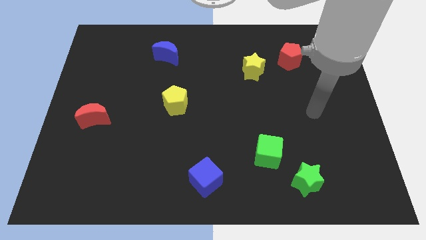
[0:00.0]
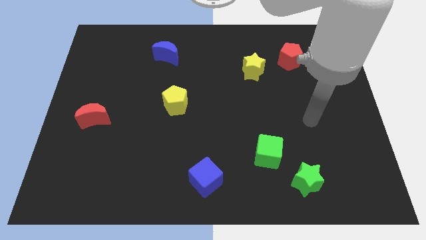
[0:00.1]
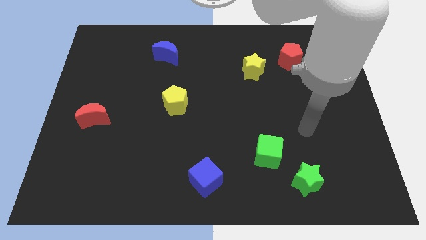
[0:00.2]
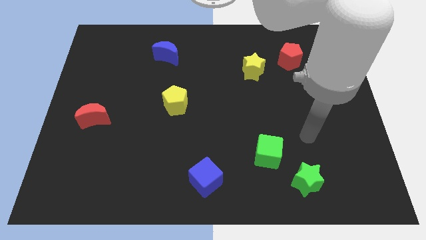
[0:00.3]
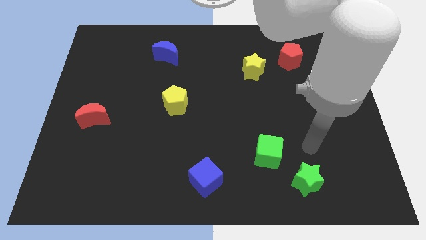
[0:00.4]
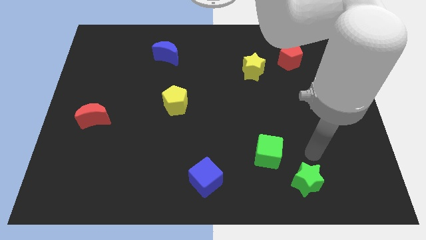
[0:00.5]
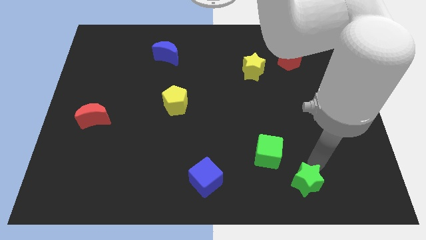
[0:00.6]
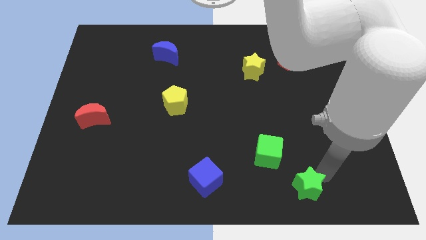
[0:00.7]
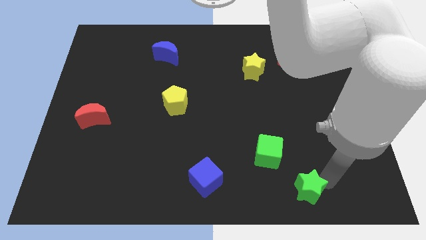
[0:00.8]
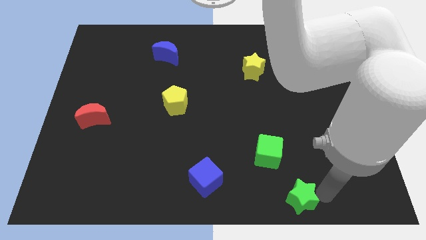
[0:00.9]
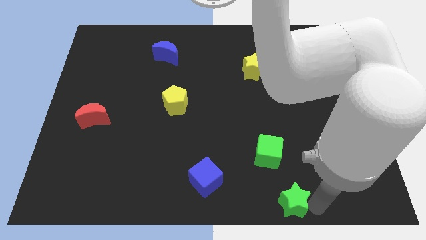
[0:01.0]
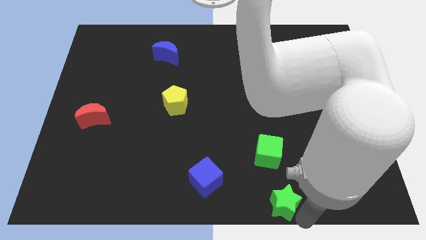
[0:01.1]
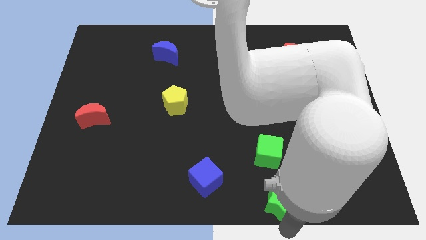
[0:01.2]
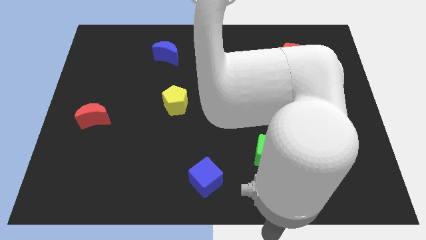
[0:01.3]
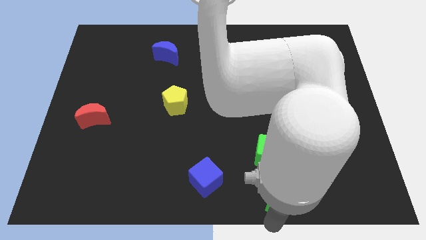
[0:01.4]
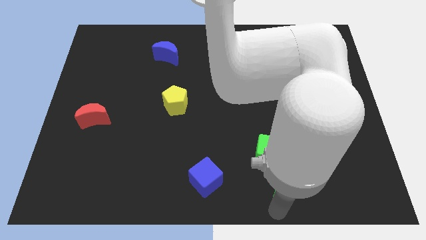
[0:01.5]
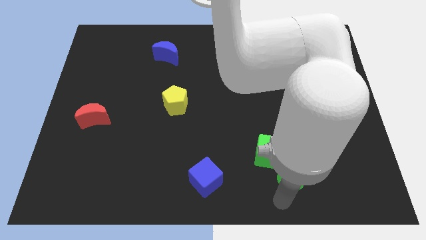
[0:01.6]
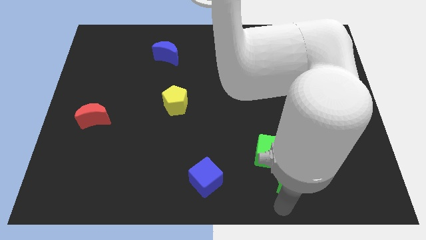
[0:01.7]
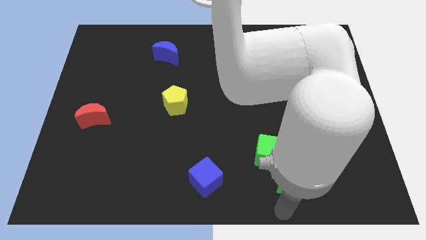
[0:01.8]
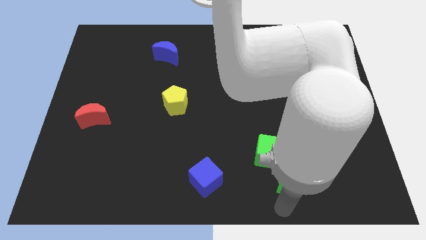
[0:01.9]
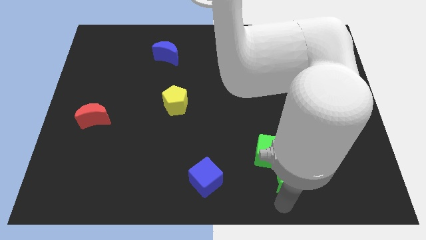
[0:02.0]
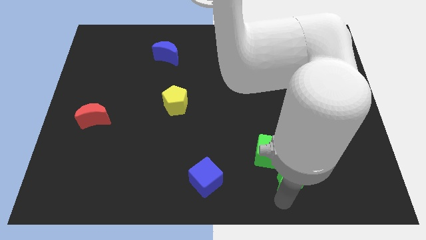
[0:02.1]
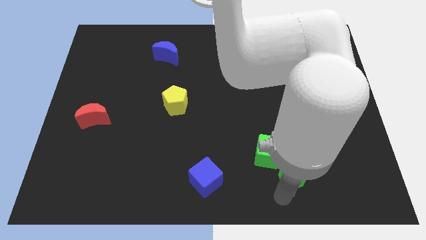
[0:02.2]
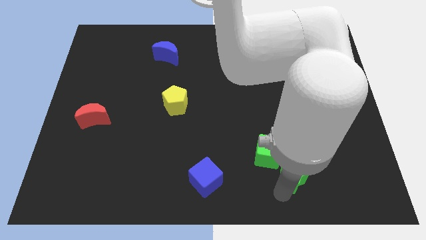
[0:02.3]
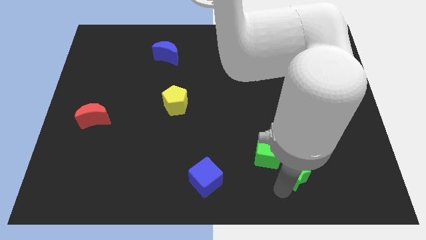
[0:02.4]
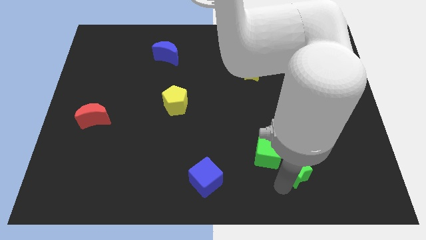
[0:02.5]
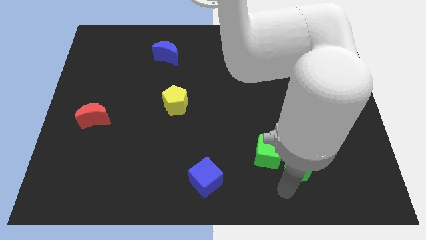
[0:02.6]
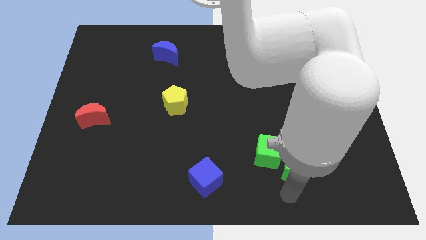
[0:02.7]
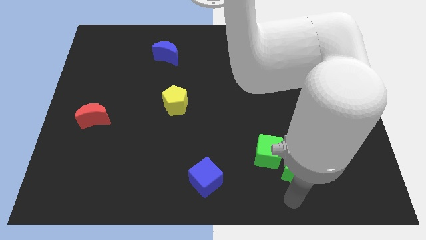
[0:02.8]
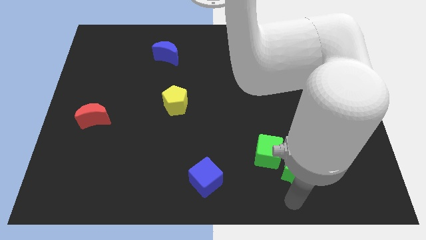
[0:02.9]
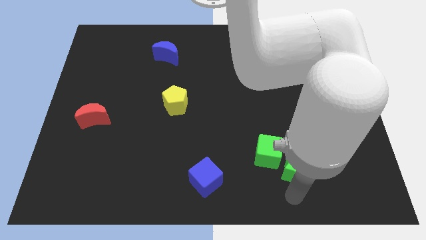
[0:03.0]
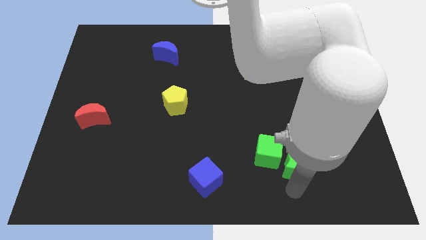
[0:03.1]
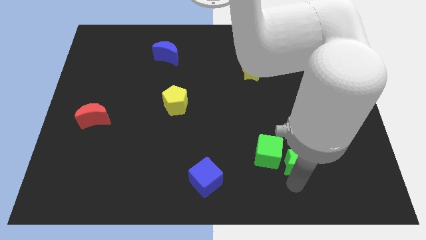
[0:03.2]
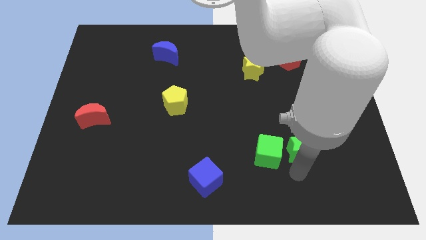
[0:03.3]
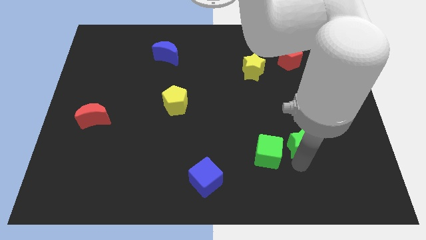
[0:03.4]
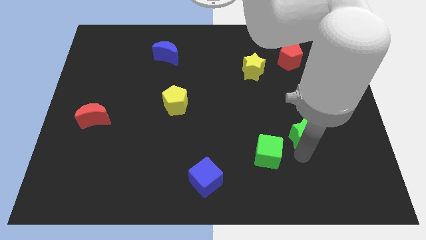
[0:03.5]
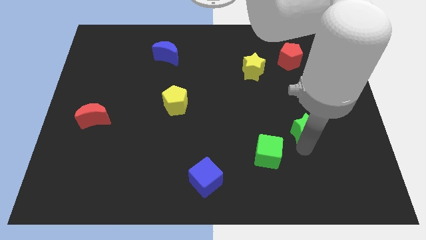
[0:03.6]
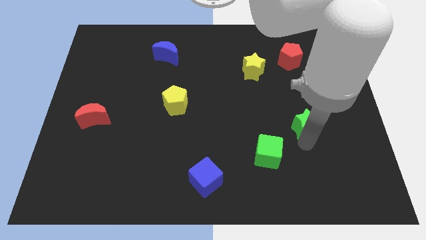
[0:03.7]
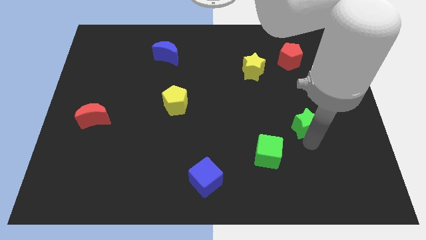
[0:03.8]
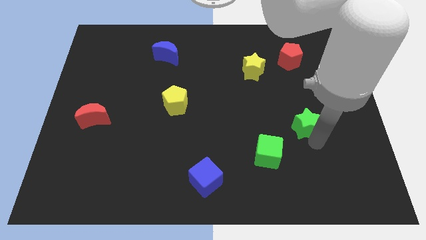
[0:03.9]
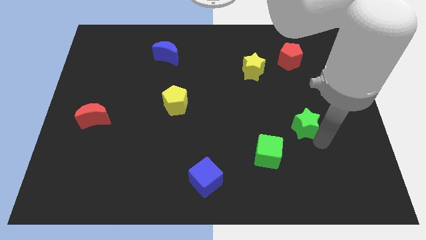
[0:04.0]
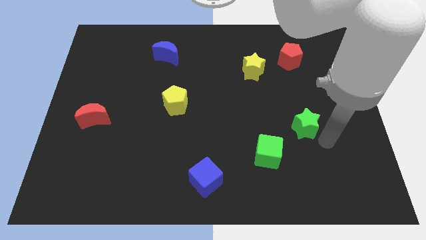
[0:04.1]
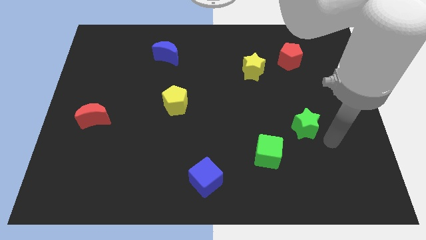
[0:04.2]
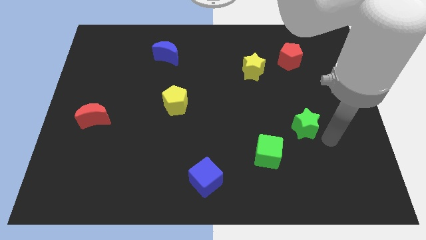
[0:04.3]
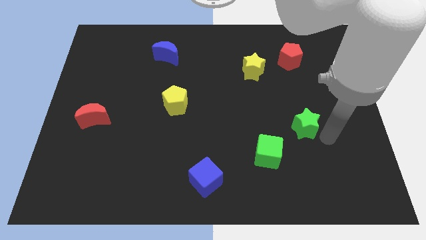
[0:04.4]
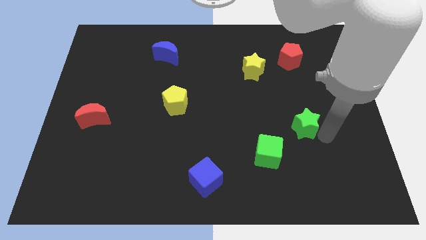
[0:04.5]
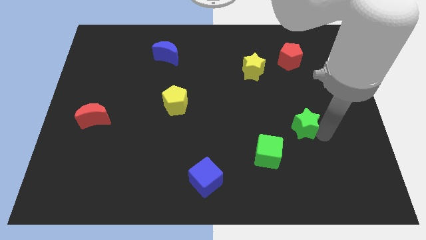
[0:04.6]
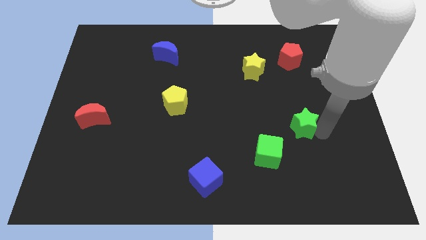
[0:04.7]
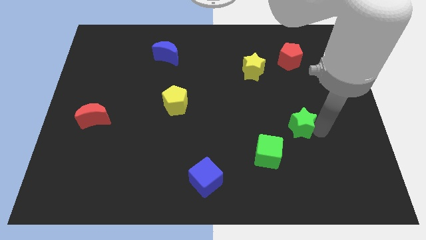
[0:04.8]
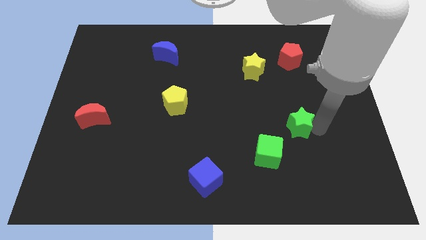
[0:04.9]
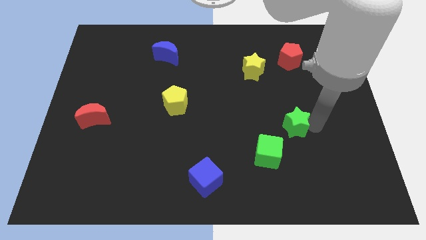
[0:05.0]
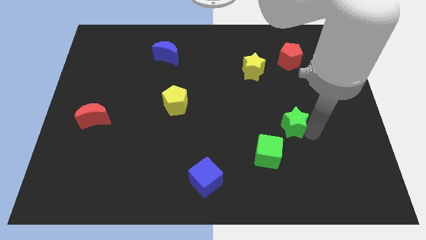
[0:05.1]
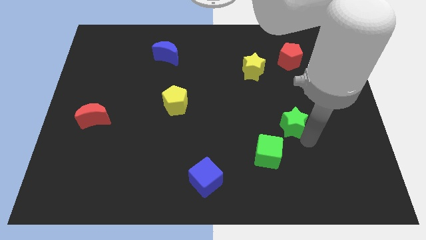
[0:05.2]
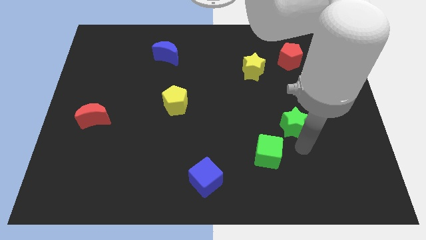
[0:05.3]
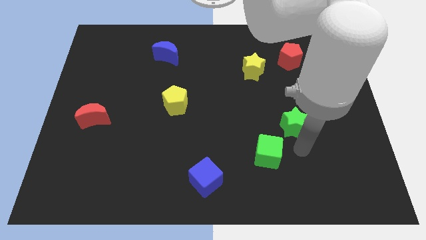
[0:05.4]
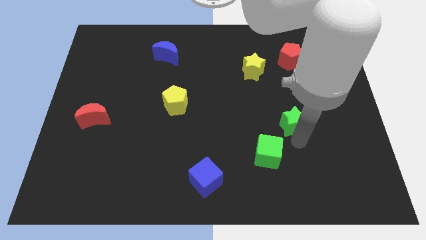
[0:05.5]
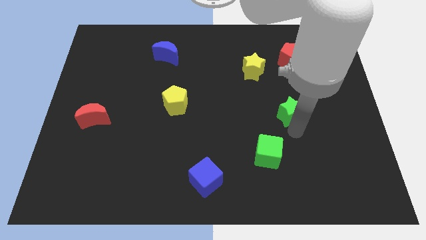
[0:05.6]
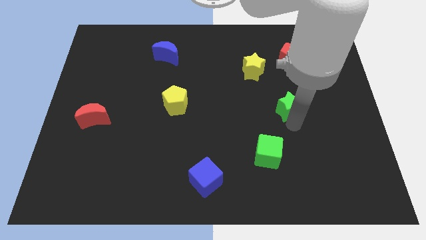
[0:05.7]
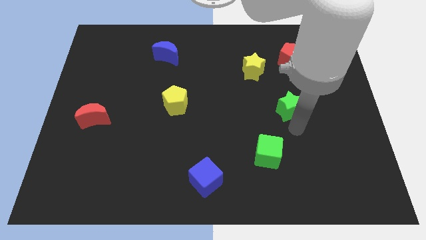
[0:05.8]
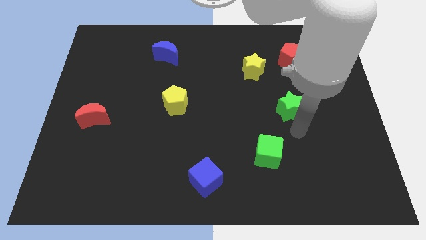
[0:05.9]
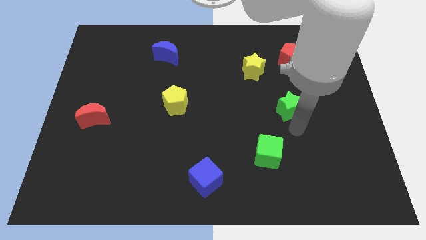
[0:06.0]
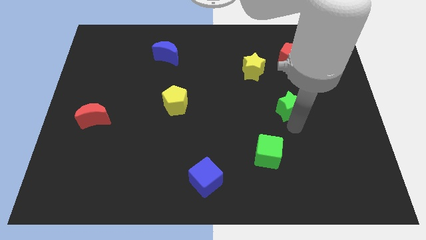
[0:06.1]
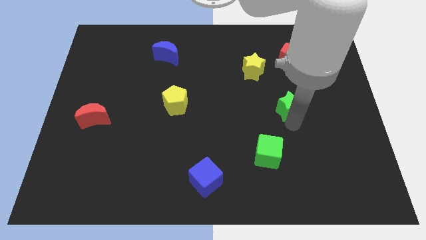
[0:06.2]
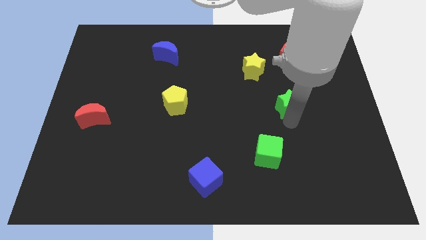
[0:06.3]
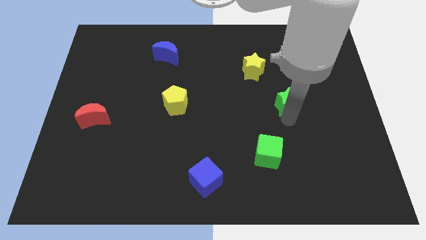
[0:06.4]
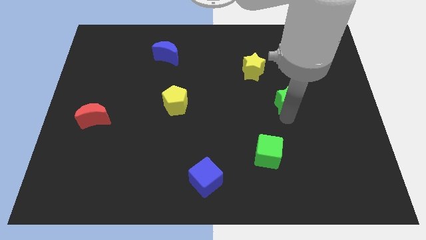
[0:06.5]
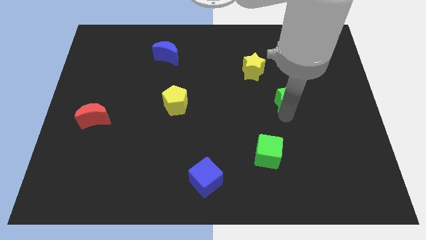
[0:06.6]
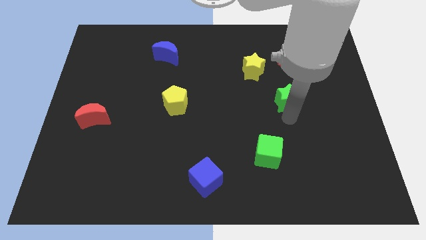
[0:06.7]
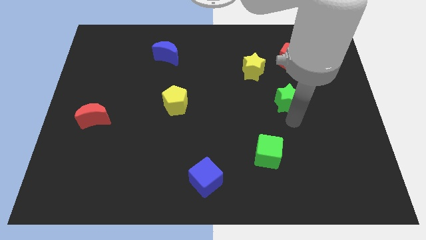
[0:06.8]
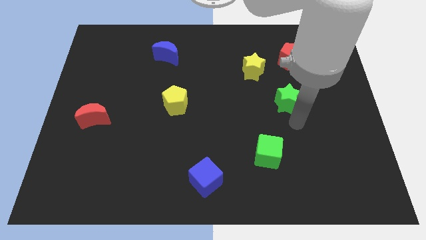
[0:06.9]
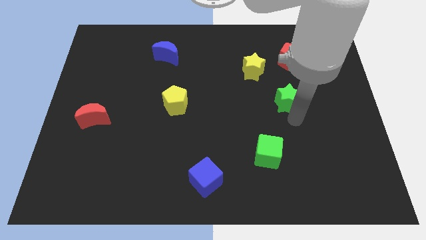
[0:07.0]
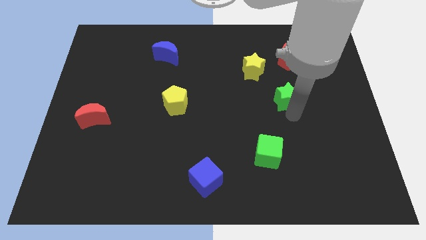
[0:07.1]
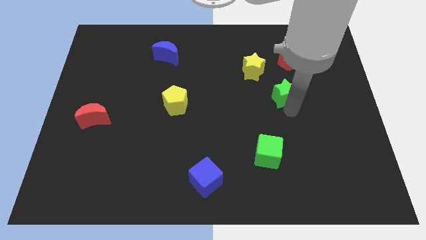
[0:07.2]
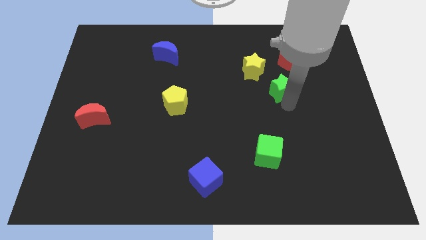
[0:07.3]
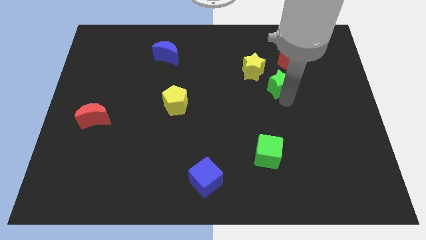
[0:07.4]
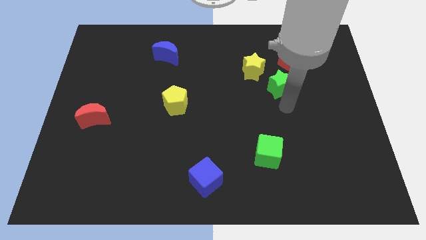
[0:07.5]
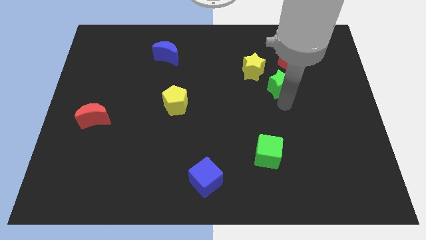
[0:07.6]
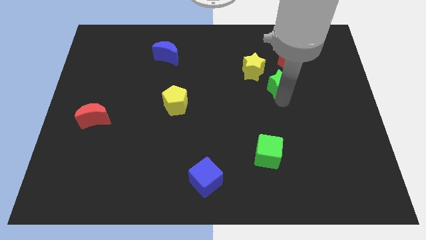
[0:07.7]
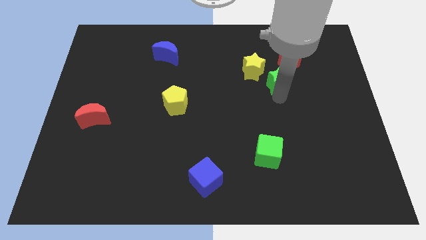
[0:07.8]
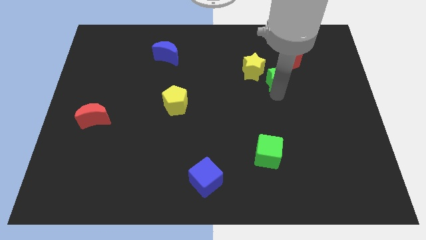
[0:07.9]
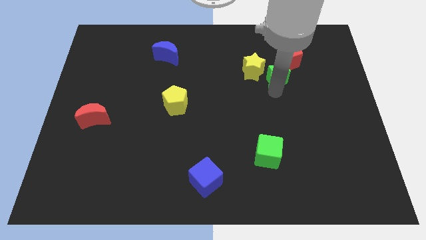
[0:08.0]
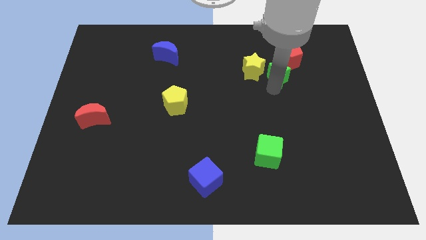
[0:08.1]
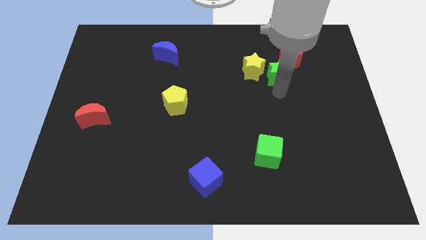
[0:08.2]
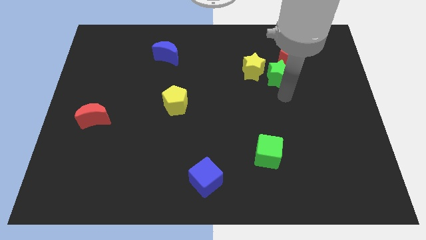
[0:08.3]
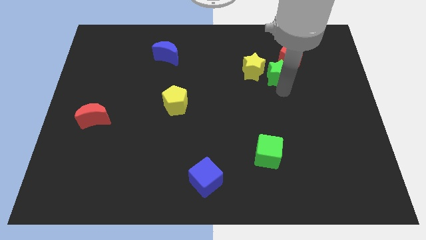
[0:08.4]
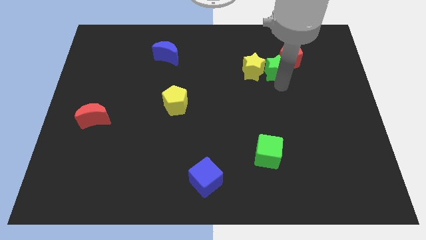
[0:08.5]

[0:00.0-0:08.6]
put the green star diagonally up and to the right of the yellow star
